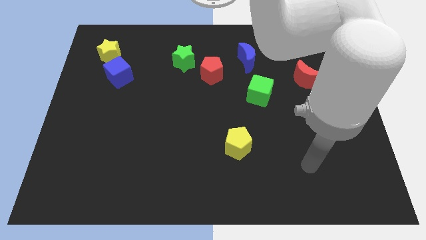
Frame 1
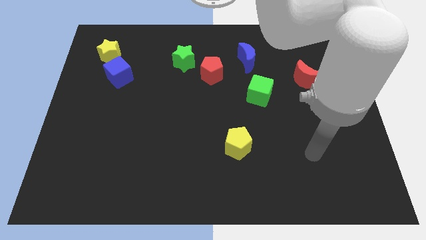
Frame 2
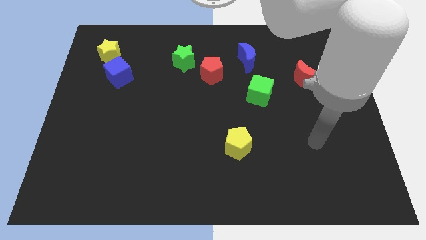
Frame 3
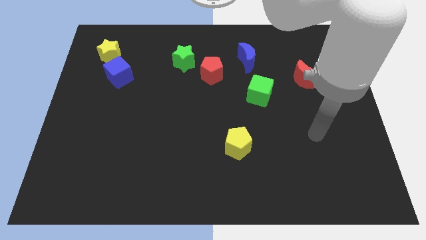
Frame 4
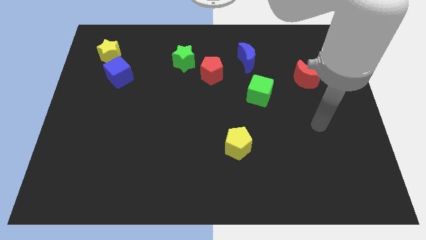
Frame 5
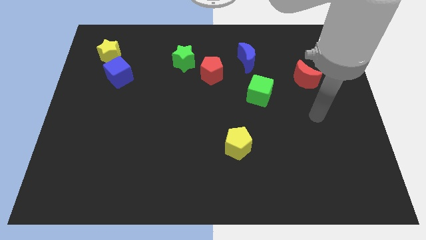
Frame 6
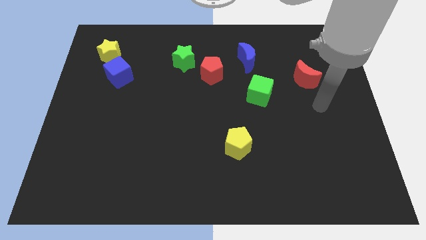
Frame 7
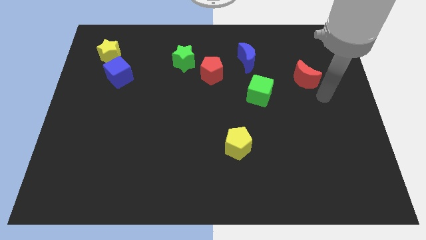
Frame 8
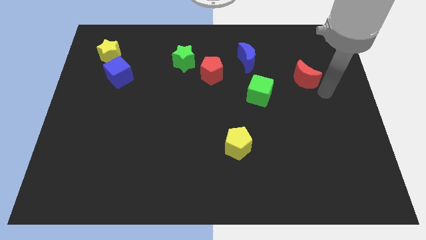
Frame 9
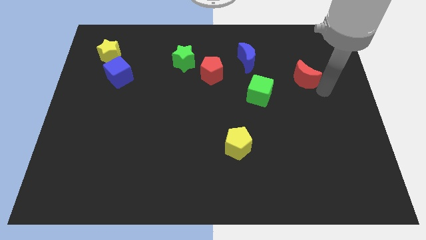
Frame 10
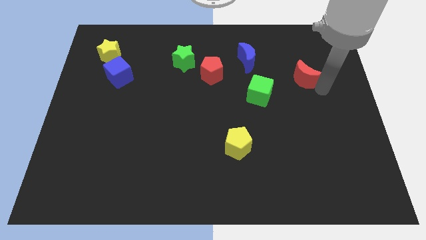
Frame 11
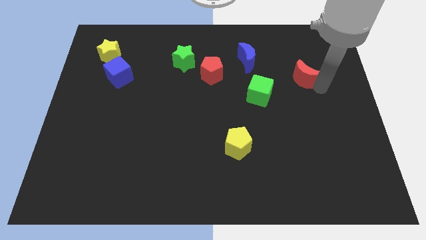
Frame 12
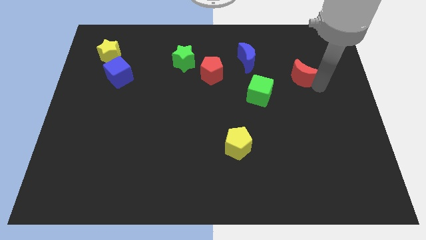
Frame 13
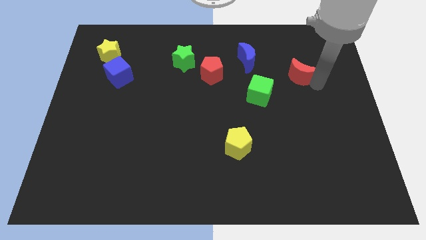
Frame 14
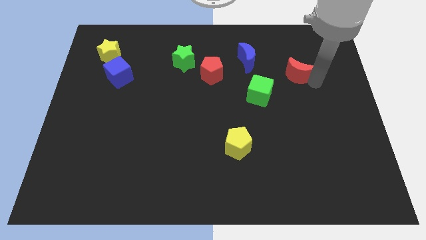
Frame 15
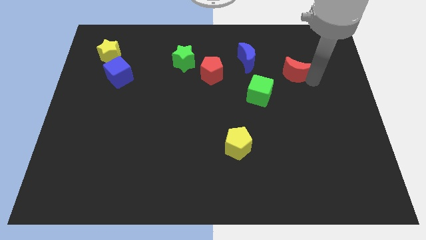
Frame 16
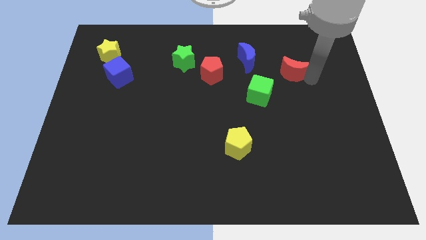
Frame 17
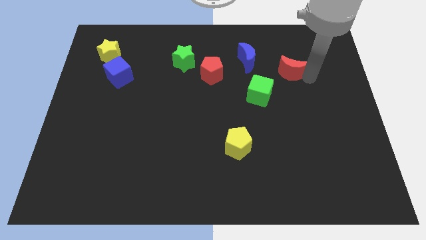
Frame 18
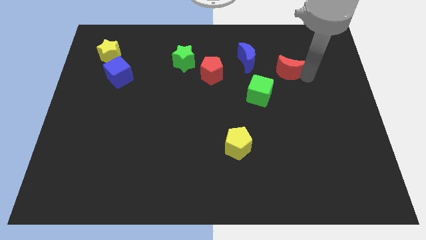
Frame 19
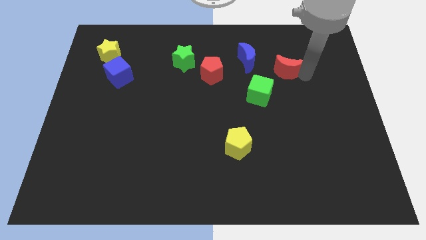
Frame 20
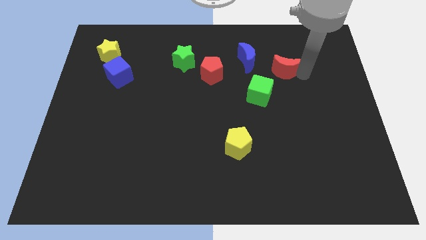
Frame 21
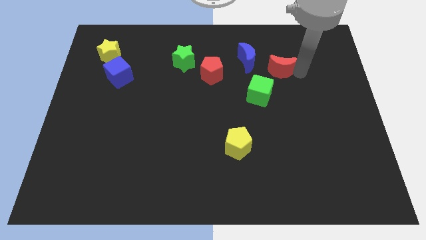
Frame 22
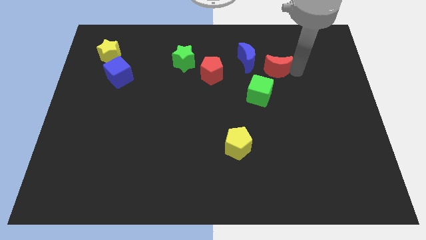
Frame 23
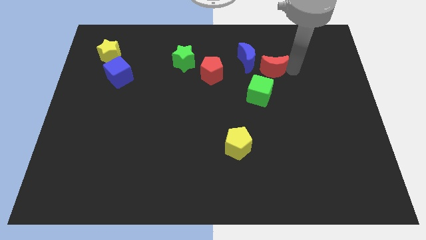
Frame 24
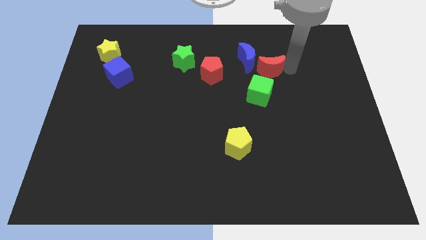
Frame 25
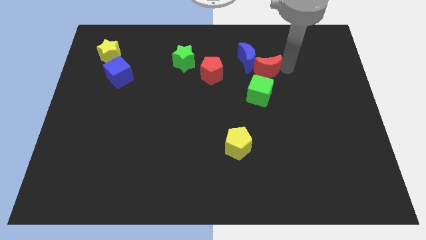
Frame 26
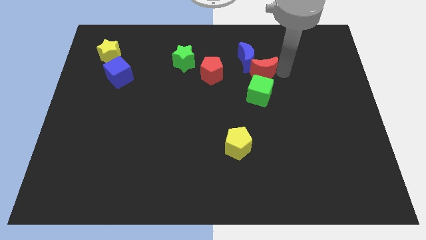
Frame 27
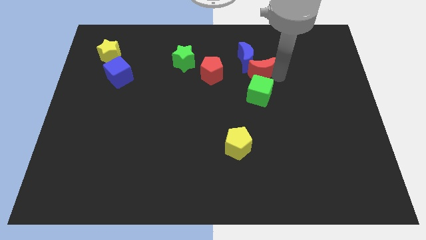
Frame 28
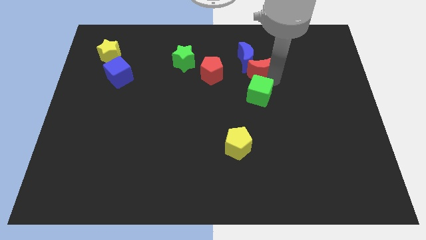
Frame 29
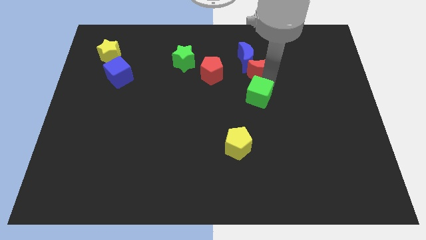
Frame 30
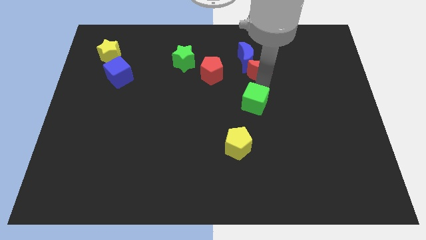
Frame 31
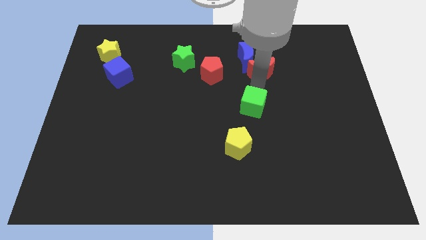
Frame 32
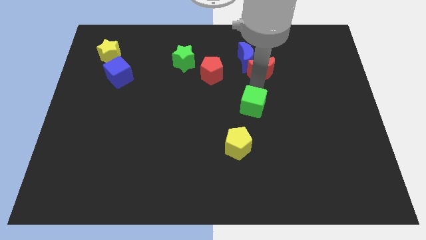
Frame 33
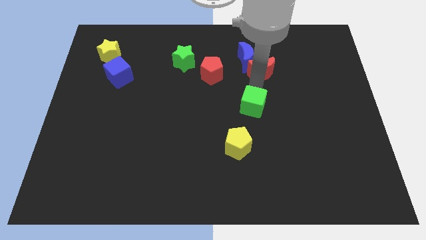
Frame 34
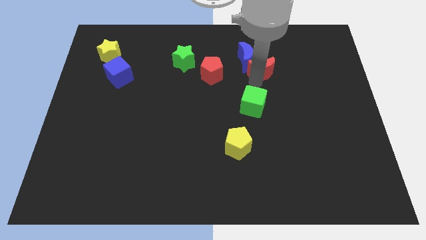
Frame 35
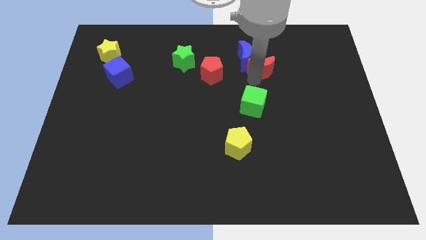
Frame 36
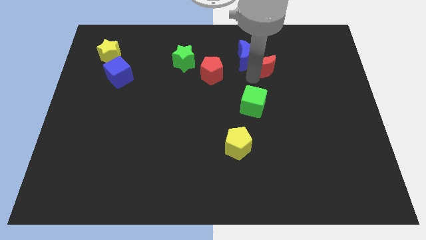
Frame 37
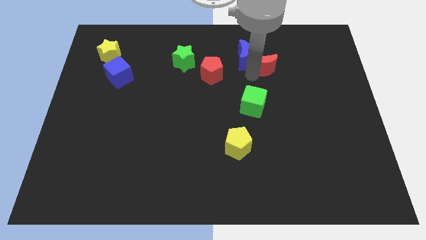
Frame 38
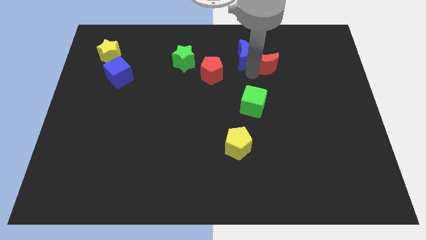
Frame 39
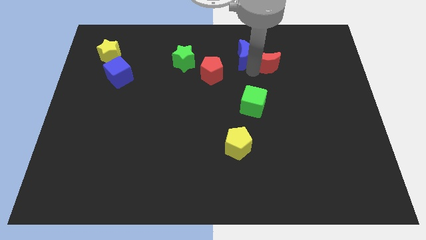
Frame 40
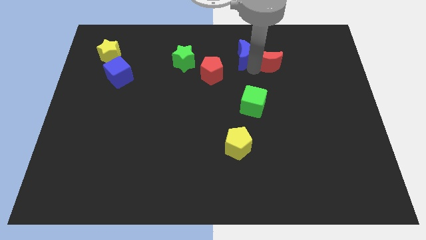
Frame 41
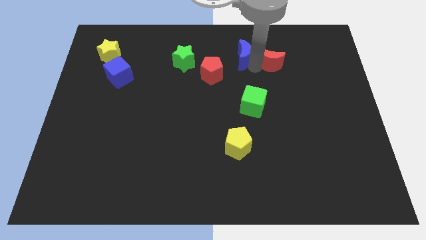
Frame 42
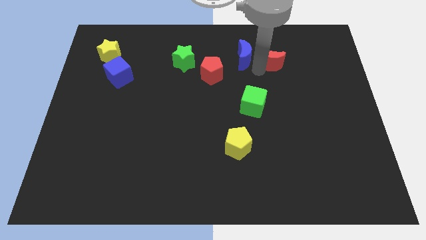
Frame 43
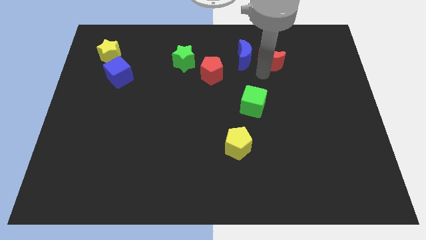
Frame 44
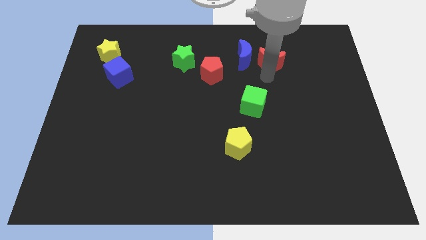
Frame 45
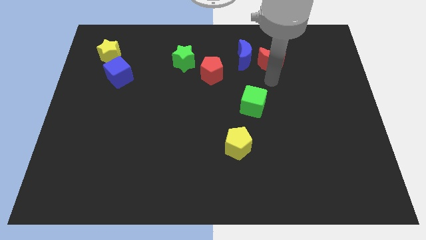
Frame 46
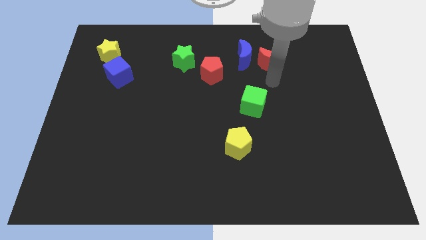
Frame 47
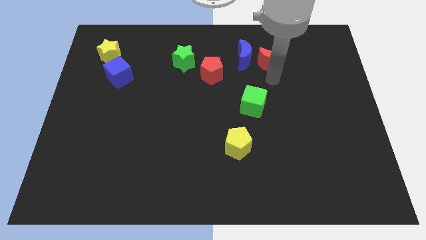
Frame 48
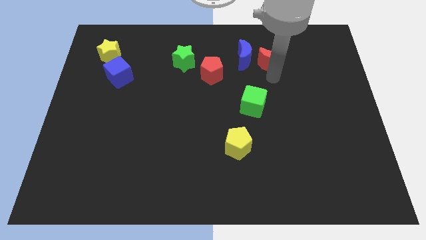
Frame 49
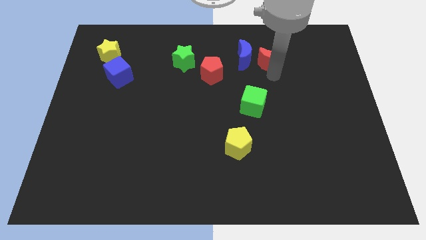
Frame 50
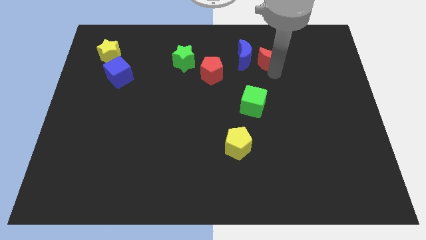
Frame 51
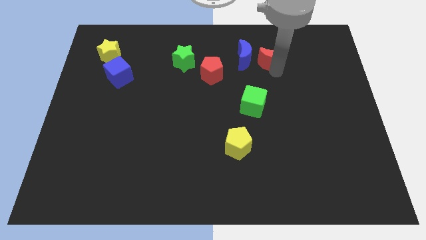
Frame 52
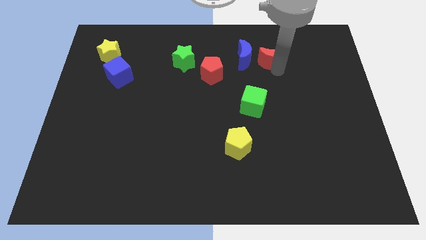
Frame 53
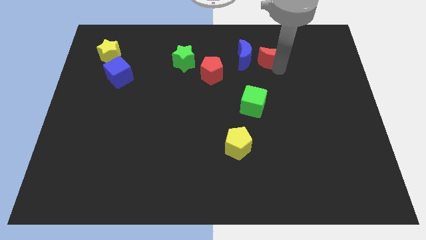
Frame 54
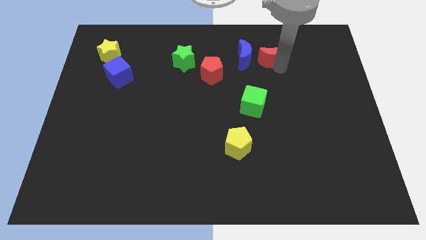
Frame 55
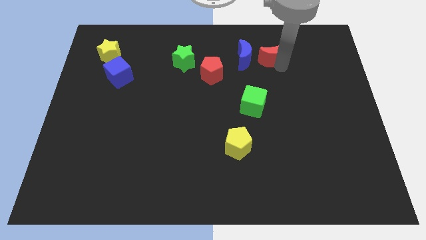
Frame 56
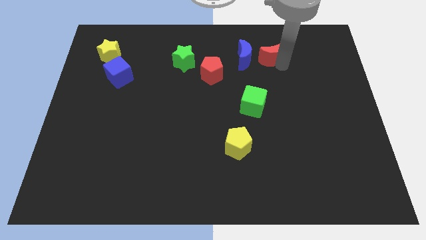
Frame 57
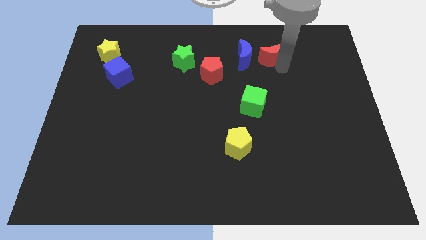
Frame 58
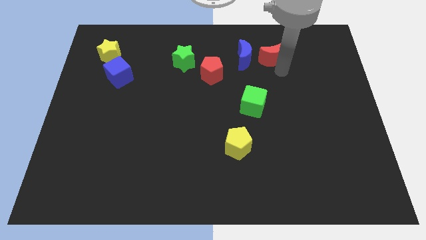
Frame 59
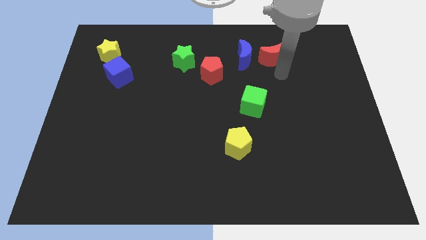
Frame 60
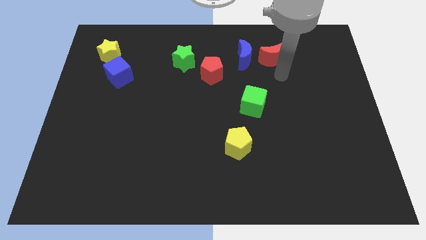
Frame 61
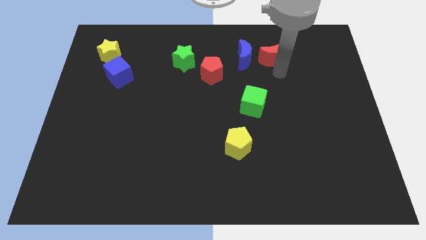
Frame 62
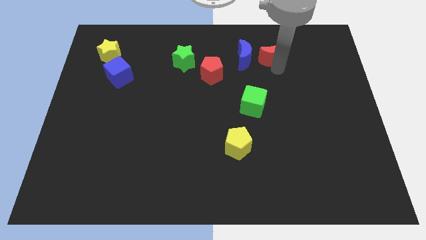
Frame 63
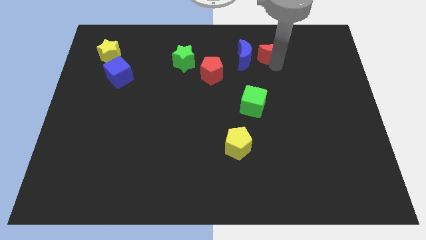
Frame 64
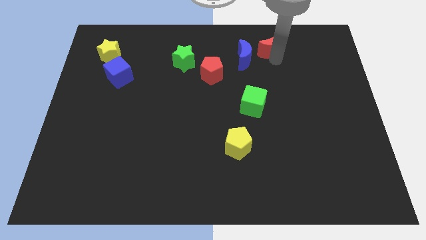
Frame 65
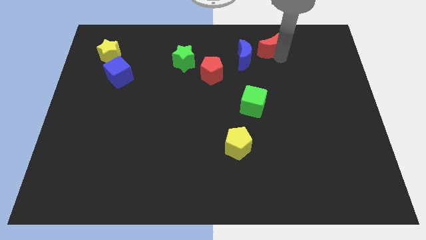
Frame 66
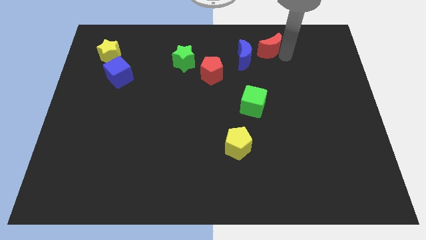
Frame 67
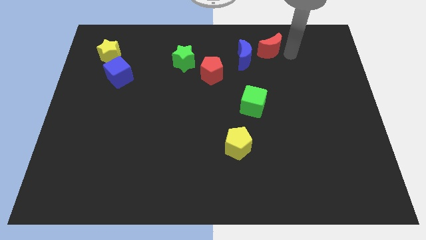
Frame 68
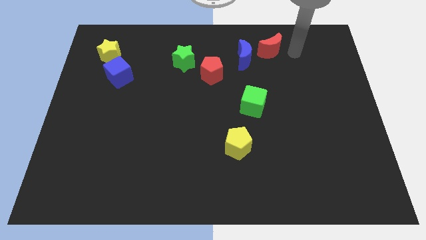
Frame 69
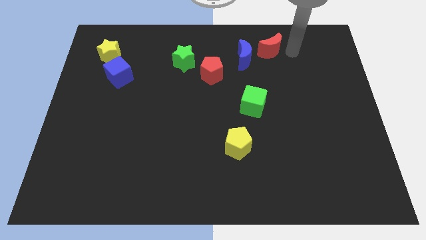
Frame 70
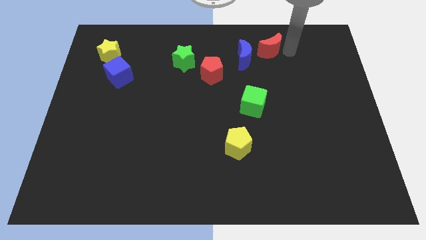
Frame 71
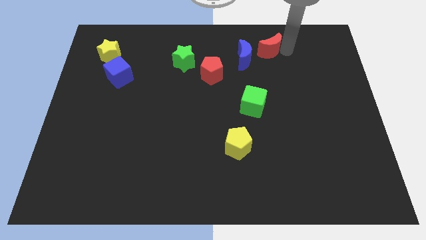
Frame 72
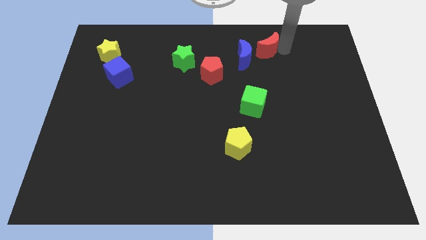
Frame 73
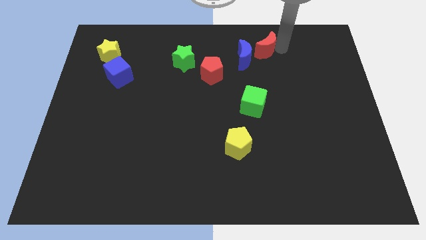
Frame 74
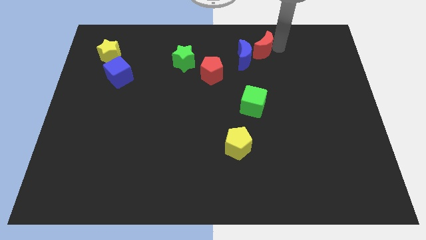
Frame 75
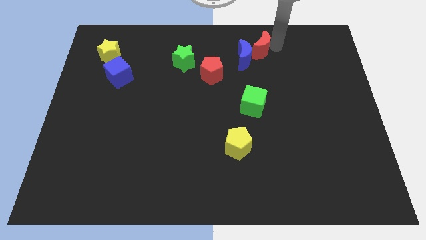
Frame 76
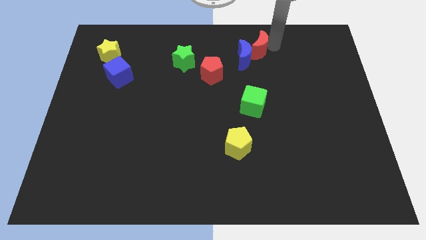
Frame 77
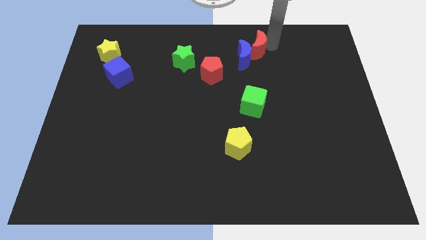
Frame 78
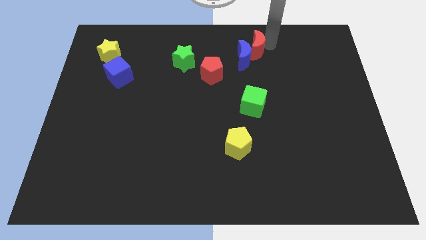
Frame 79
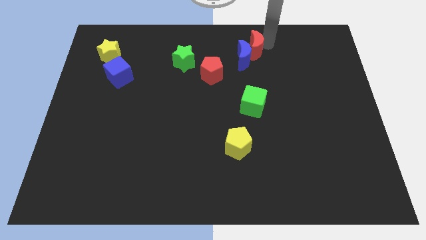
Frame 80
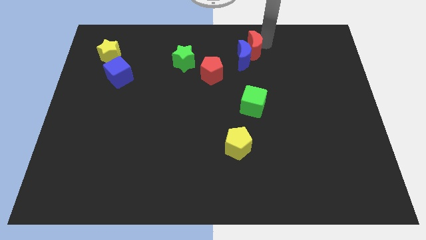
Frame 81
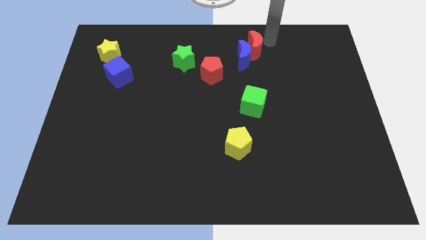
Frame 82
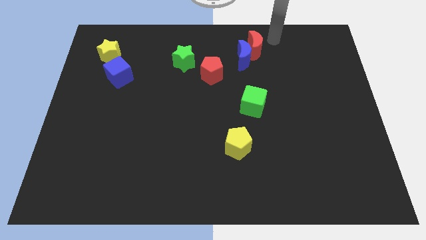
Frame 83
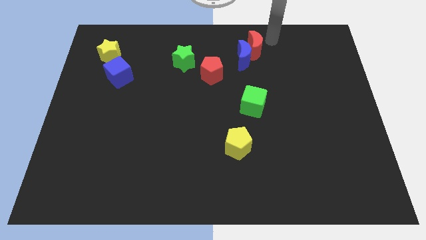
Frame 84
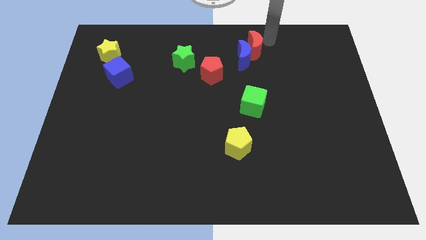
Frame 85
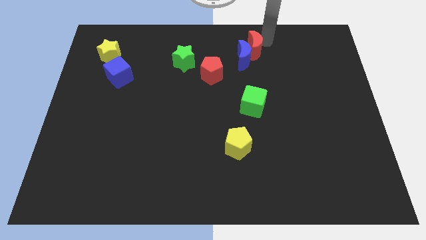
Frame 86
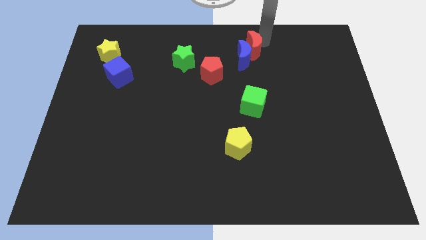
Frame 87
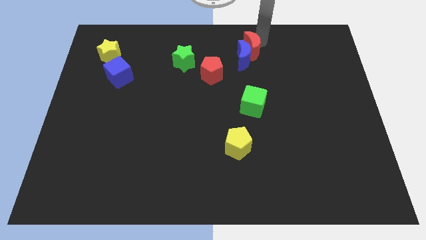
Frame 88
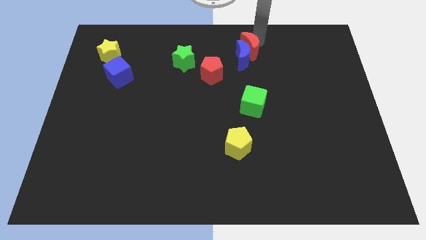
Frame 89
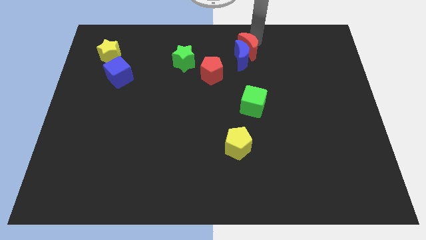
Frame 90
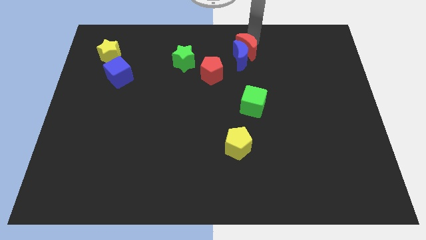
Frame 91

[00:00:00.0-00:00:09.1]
move the red moon to the top right side of the red pentagon
